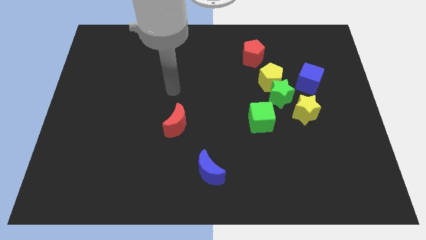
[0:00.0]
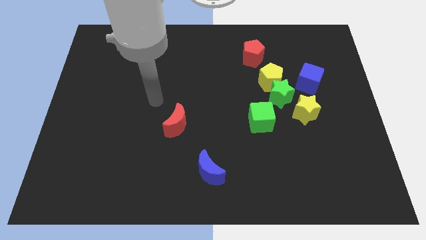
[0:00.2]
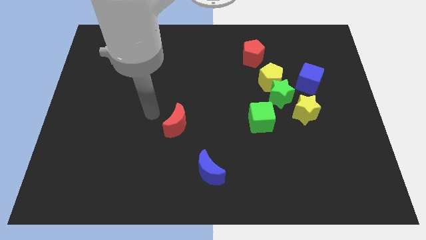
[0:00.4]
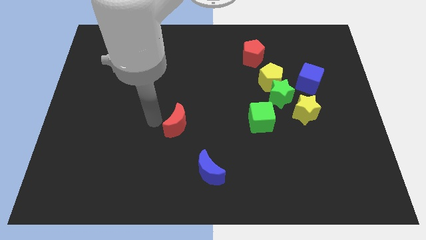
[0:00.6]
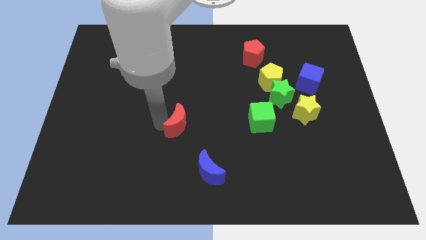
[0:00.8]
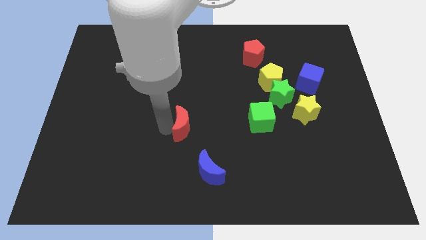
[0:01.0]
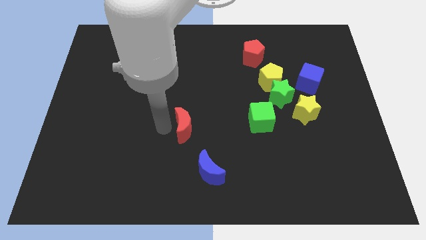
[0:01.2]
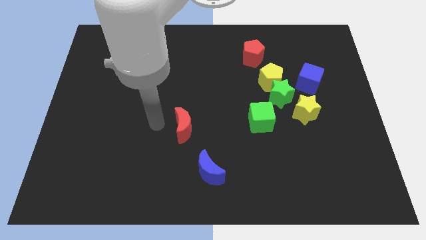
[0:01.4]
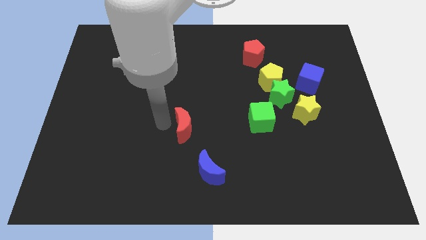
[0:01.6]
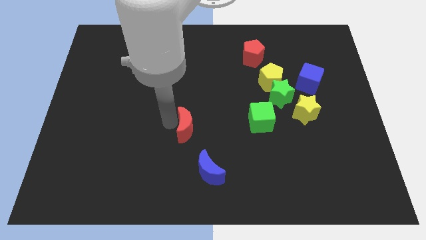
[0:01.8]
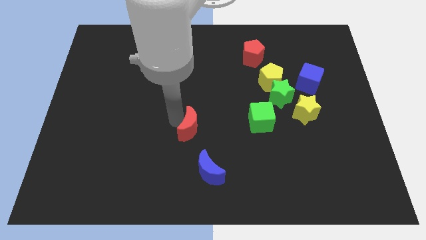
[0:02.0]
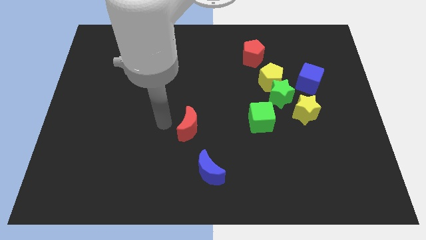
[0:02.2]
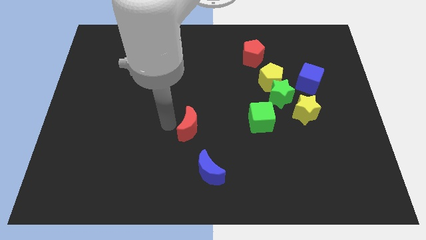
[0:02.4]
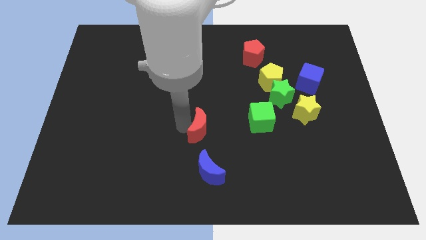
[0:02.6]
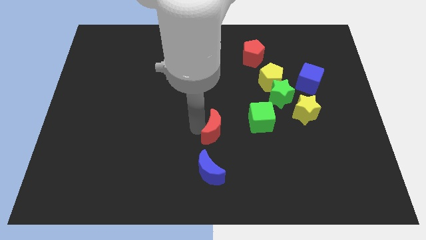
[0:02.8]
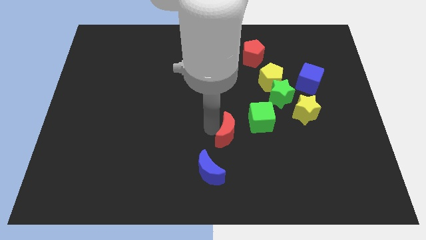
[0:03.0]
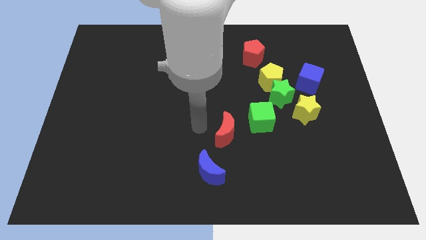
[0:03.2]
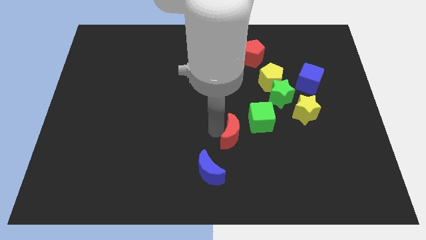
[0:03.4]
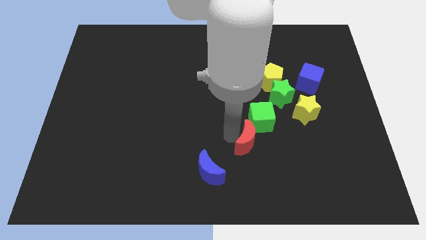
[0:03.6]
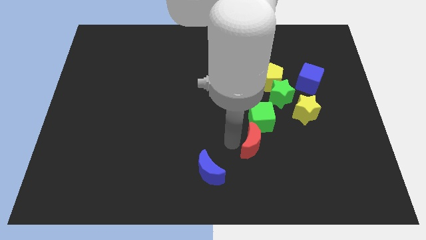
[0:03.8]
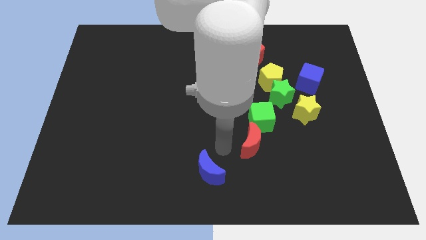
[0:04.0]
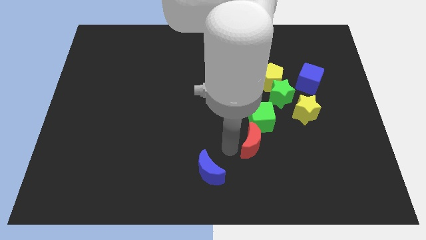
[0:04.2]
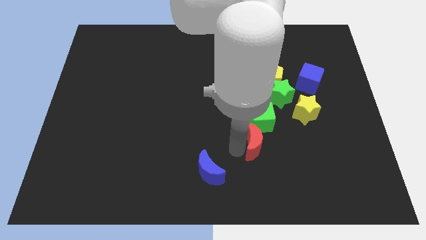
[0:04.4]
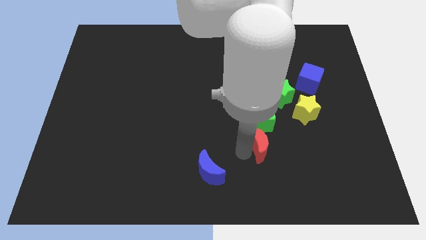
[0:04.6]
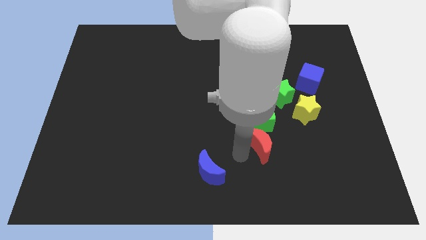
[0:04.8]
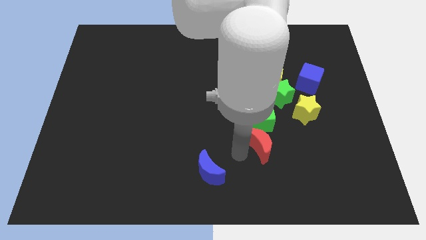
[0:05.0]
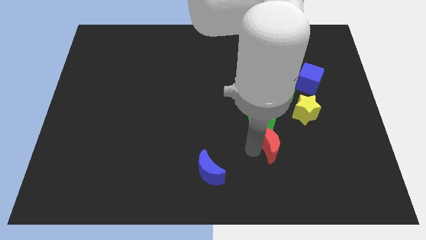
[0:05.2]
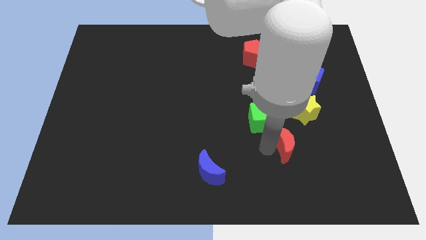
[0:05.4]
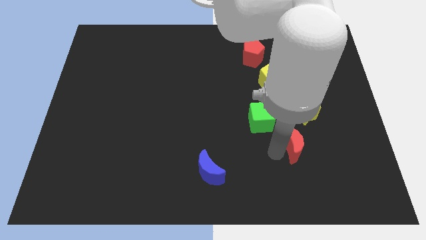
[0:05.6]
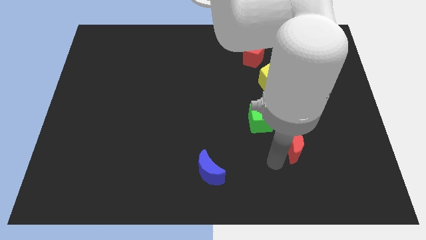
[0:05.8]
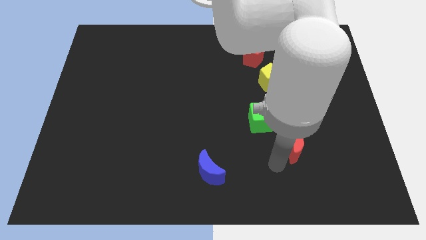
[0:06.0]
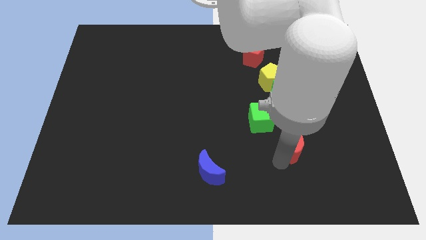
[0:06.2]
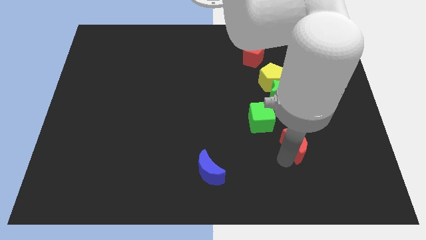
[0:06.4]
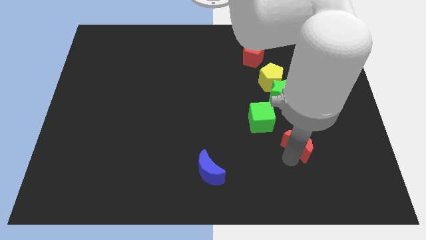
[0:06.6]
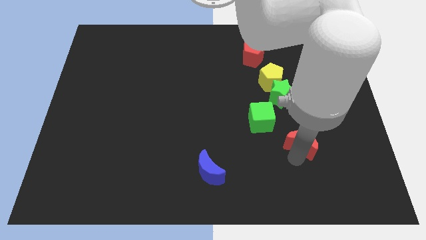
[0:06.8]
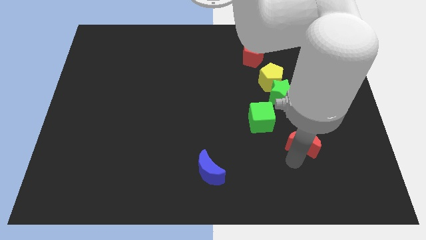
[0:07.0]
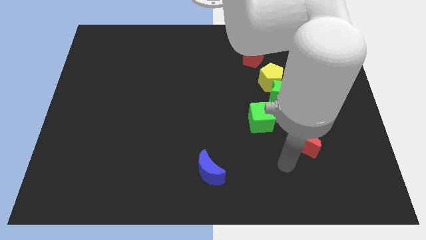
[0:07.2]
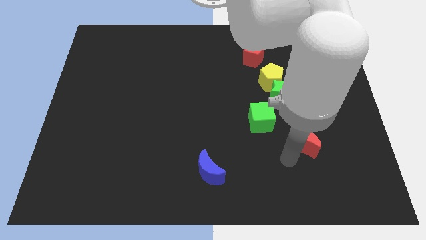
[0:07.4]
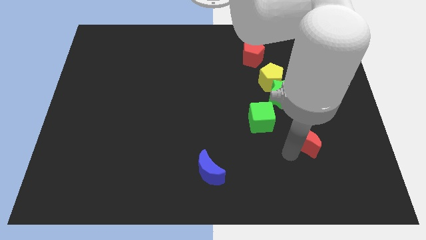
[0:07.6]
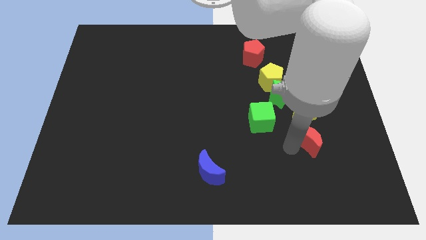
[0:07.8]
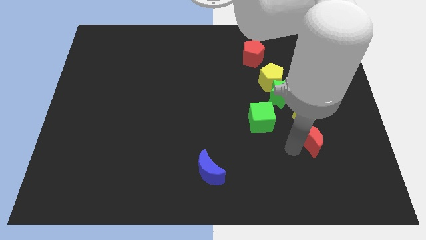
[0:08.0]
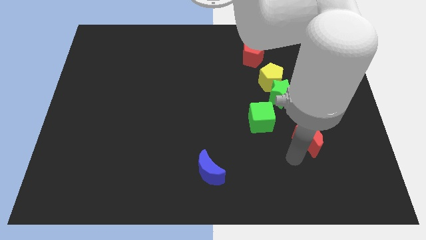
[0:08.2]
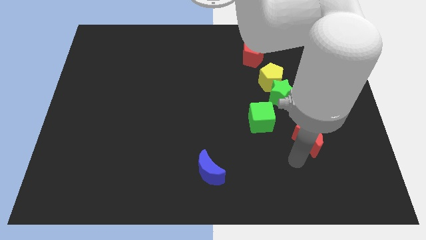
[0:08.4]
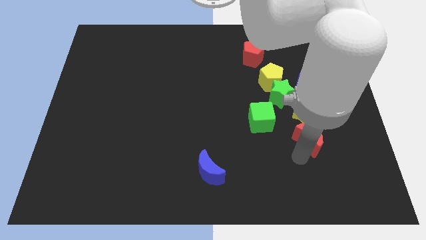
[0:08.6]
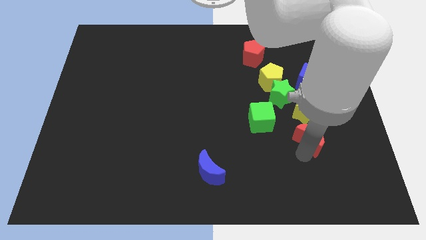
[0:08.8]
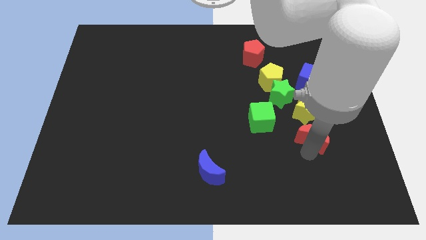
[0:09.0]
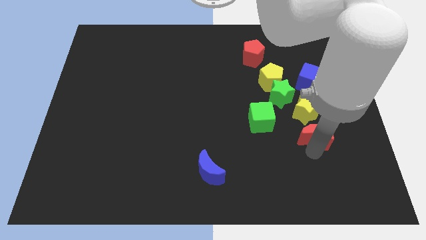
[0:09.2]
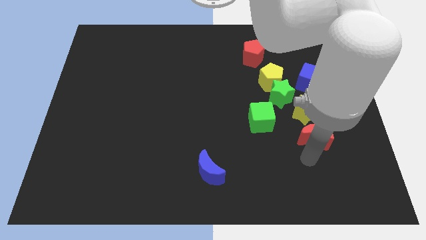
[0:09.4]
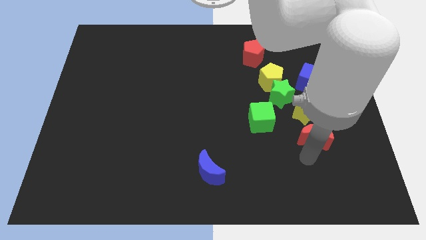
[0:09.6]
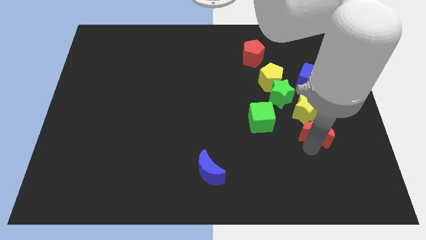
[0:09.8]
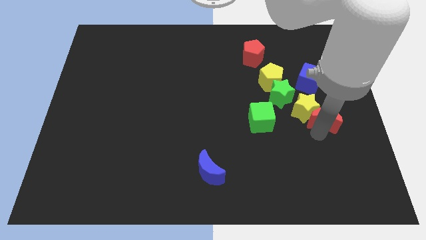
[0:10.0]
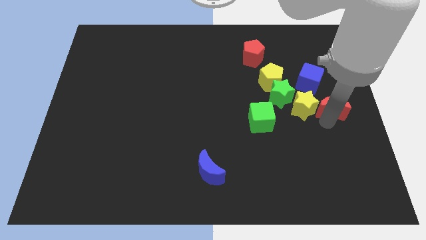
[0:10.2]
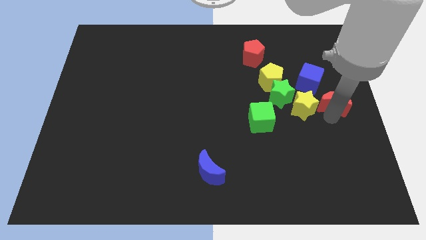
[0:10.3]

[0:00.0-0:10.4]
push the red moon diagonally up and to the right of the yellow star

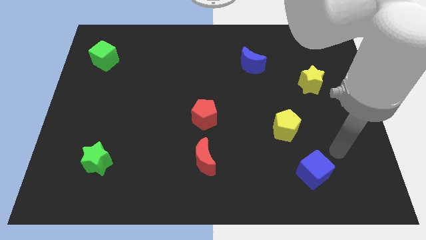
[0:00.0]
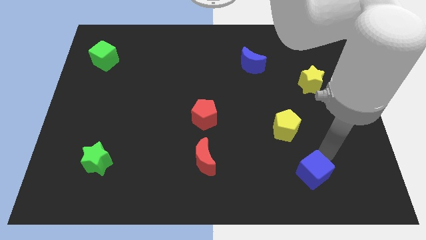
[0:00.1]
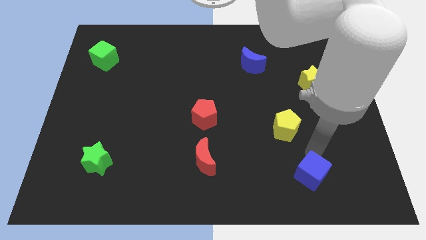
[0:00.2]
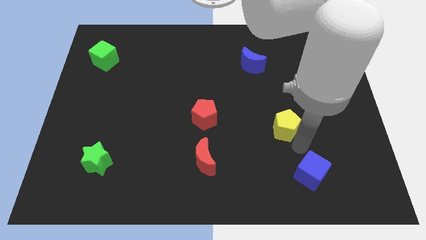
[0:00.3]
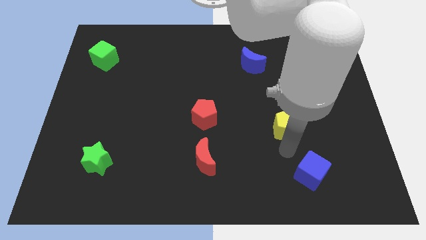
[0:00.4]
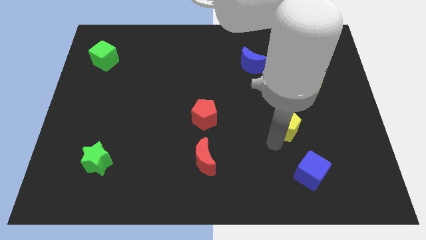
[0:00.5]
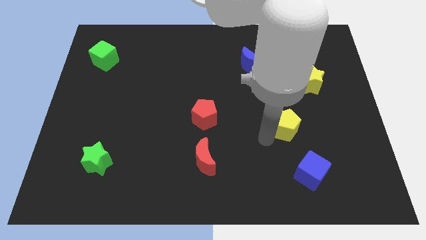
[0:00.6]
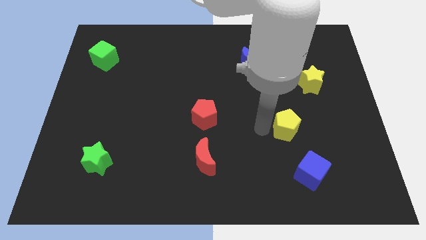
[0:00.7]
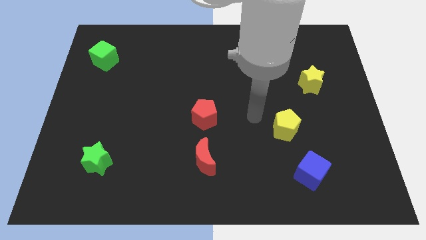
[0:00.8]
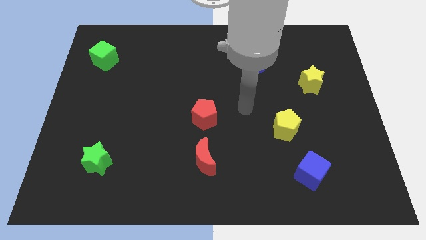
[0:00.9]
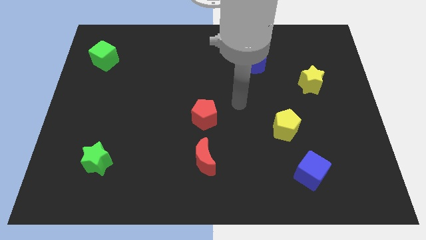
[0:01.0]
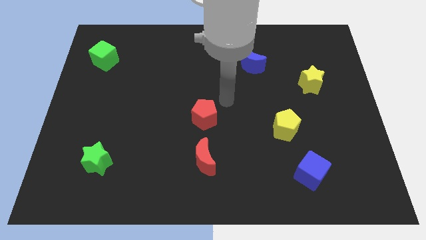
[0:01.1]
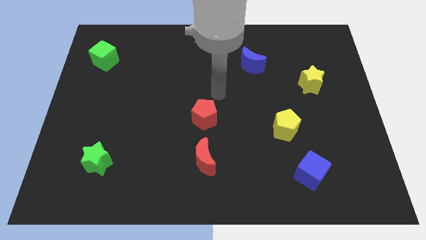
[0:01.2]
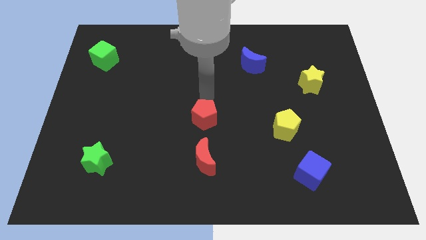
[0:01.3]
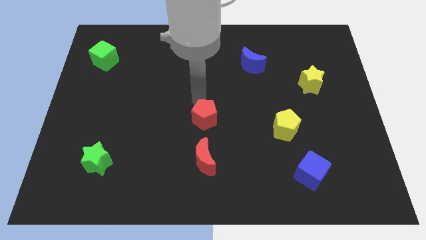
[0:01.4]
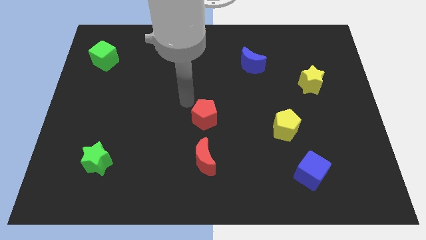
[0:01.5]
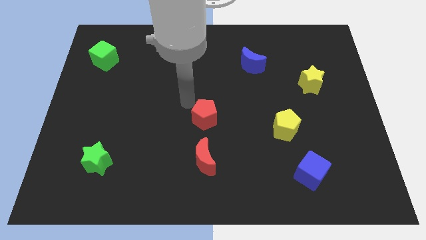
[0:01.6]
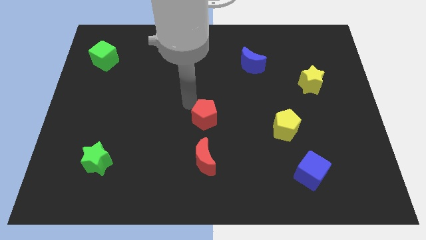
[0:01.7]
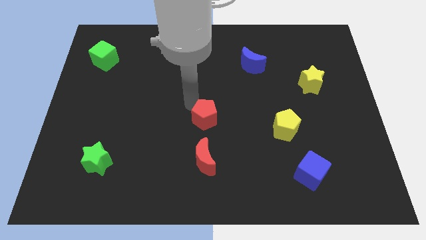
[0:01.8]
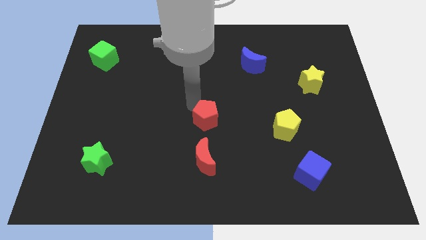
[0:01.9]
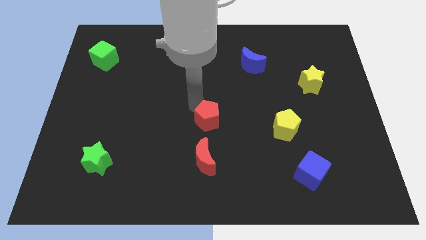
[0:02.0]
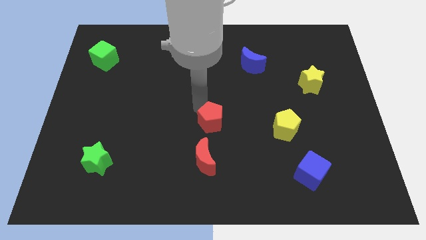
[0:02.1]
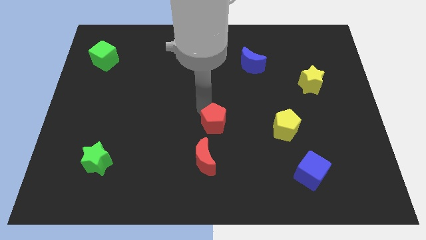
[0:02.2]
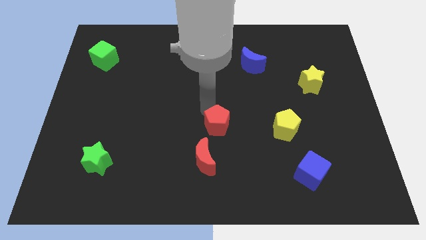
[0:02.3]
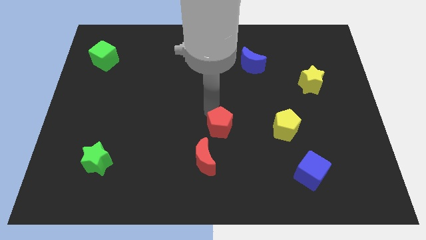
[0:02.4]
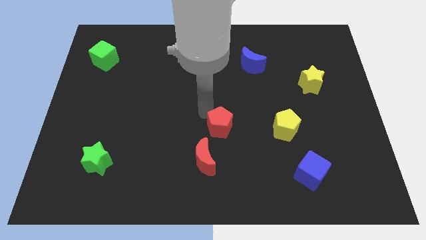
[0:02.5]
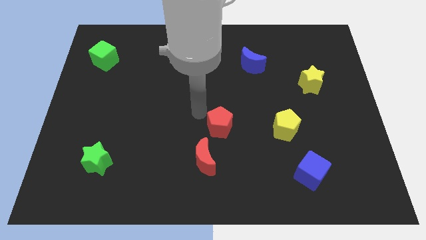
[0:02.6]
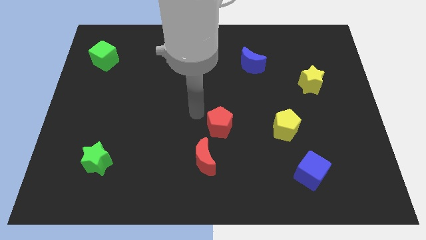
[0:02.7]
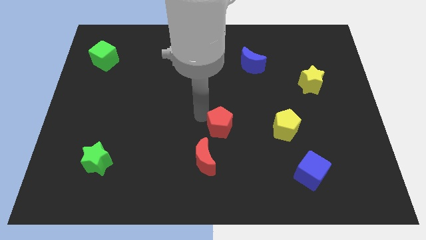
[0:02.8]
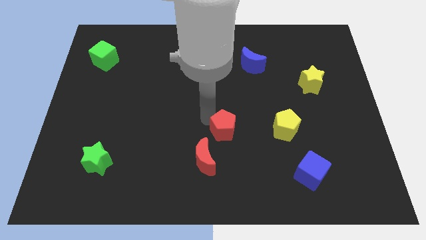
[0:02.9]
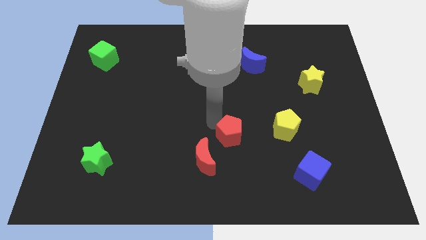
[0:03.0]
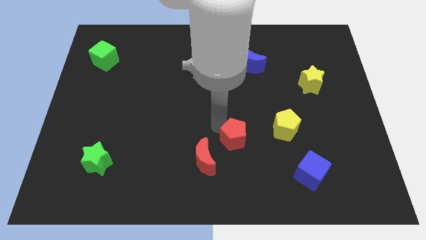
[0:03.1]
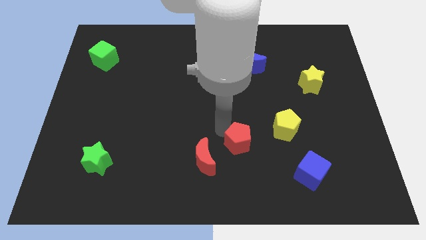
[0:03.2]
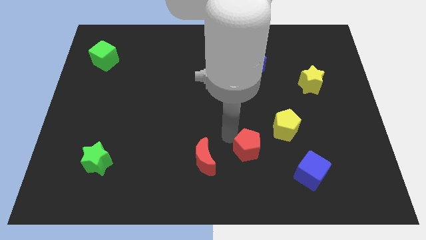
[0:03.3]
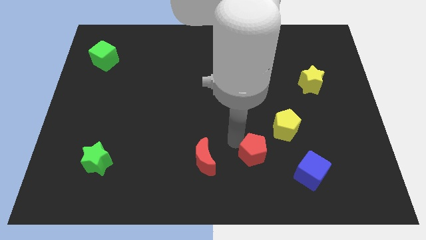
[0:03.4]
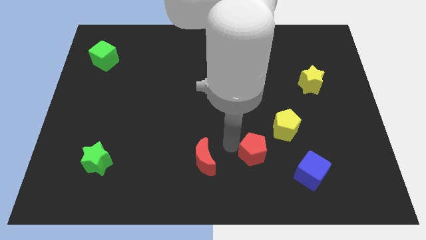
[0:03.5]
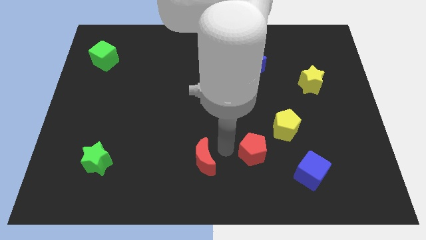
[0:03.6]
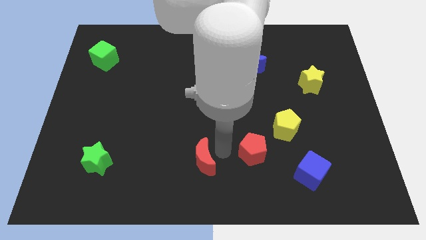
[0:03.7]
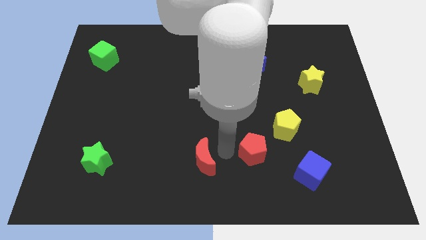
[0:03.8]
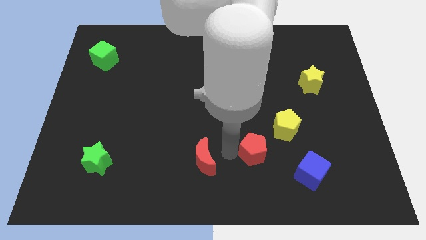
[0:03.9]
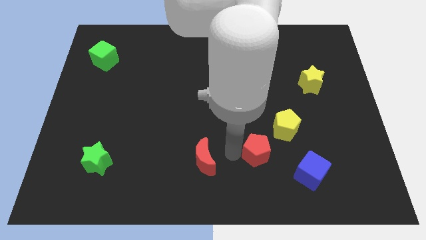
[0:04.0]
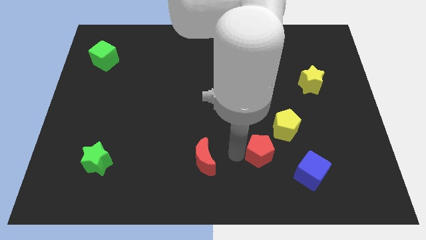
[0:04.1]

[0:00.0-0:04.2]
push the red pentagon to the top left of the blue cube
